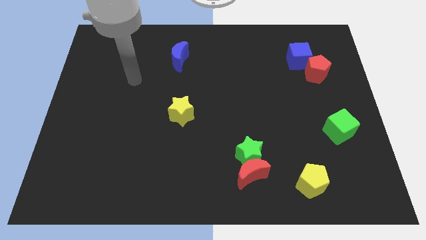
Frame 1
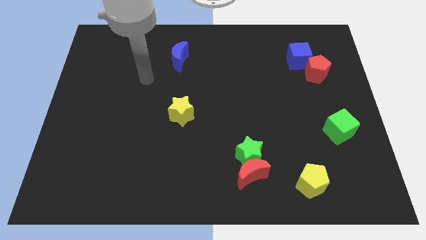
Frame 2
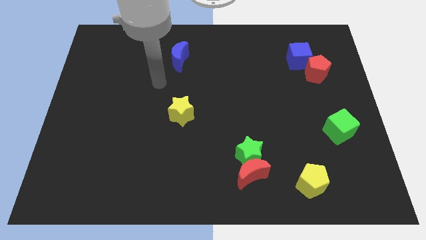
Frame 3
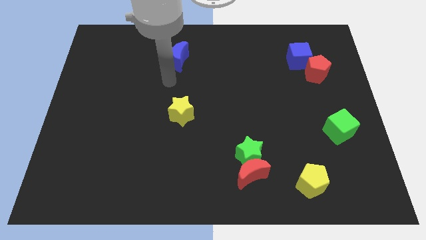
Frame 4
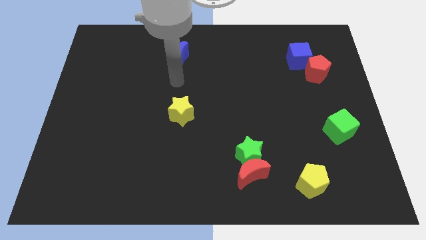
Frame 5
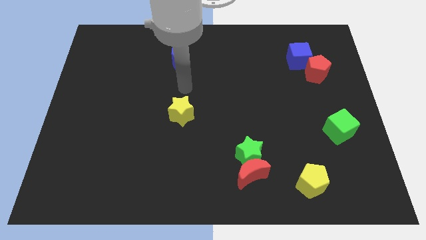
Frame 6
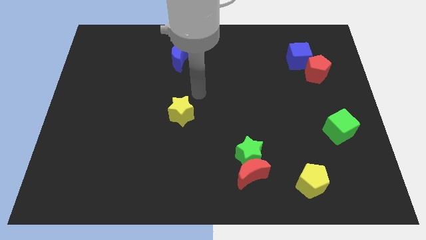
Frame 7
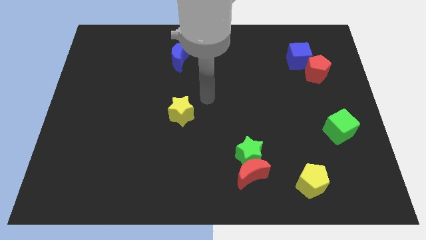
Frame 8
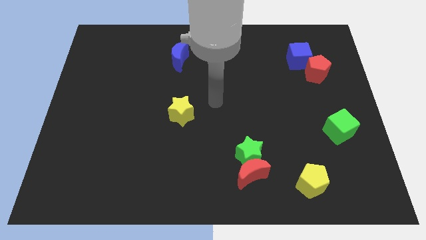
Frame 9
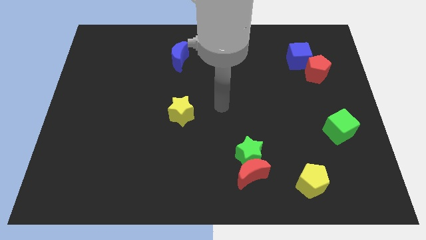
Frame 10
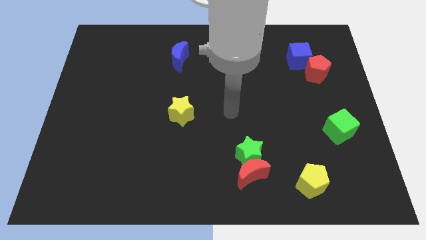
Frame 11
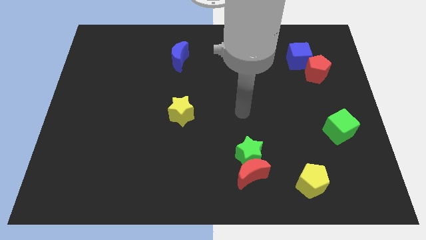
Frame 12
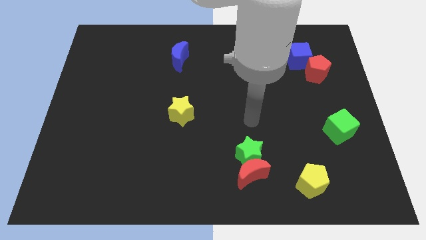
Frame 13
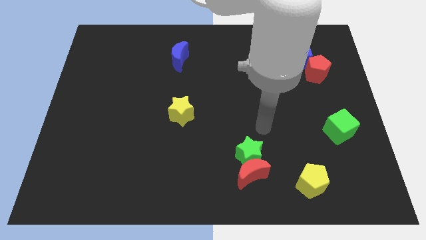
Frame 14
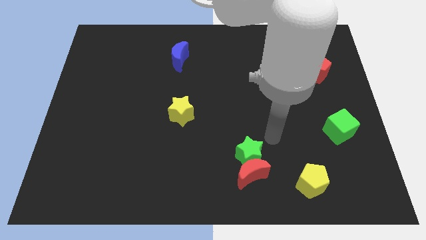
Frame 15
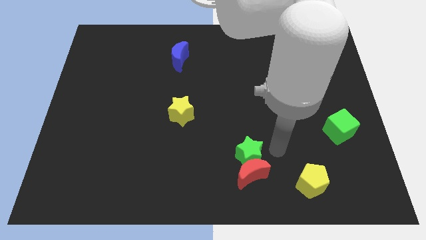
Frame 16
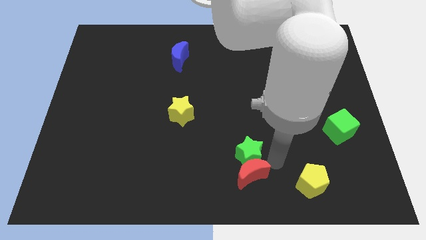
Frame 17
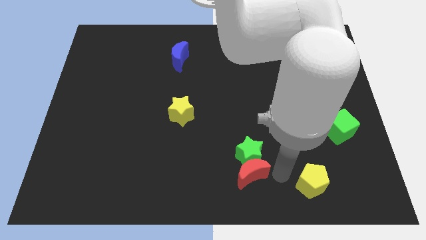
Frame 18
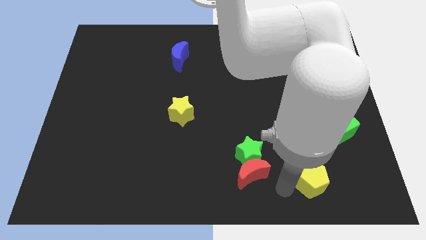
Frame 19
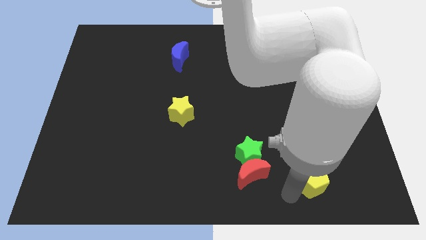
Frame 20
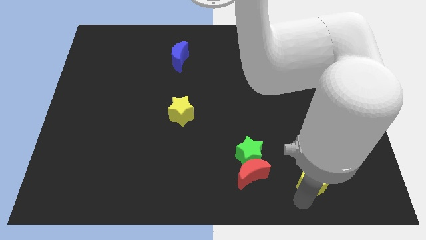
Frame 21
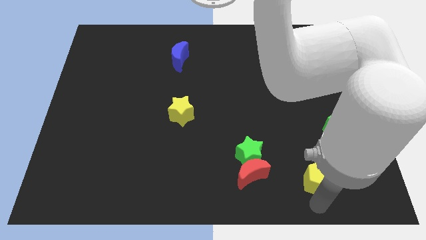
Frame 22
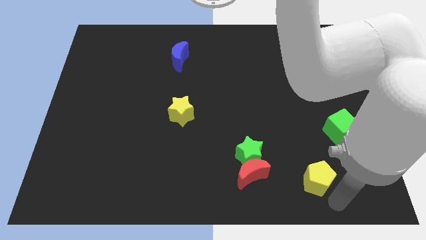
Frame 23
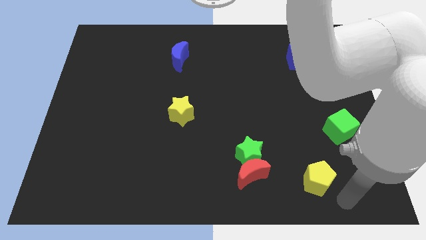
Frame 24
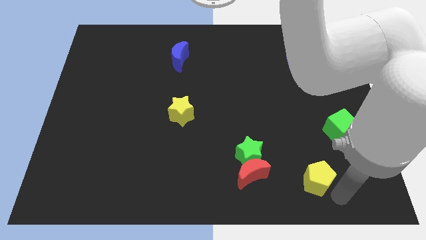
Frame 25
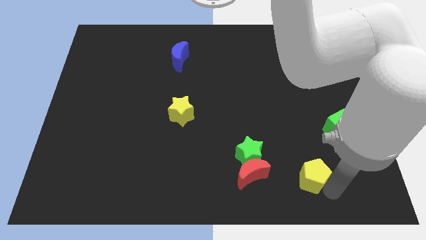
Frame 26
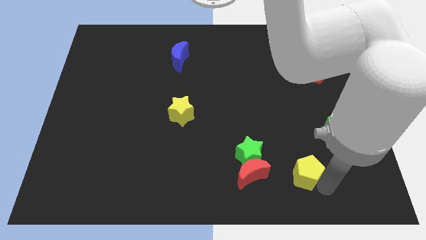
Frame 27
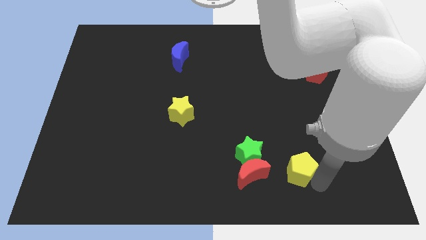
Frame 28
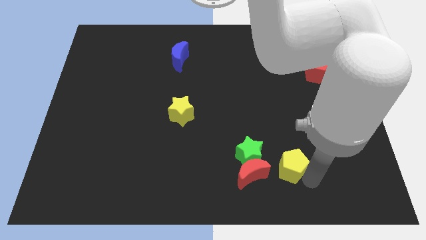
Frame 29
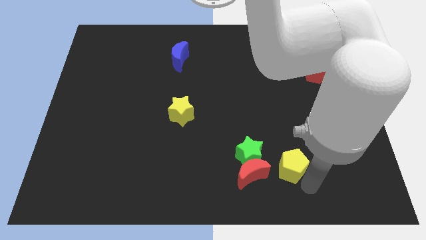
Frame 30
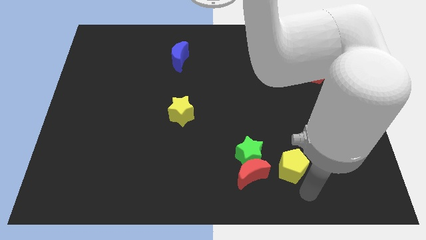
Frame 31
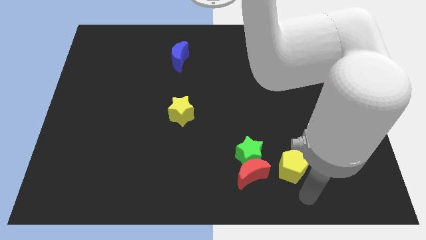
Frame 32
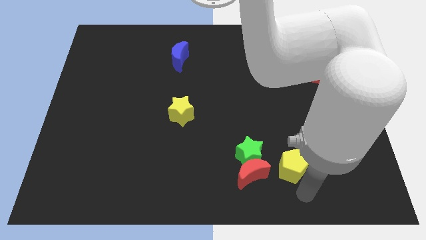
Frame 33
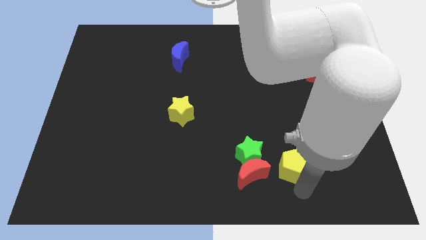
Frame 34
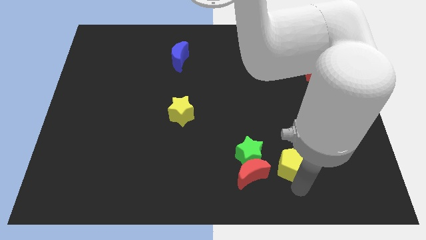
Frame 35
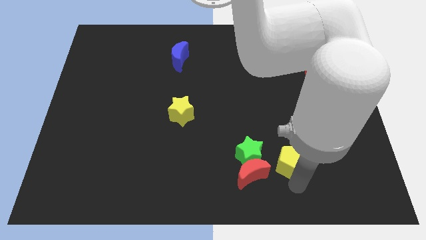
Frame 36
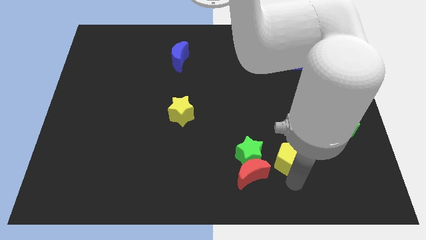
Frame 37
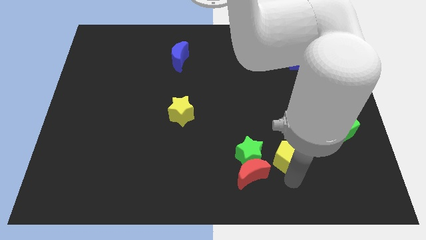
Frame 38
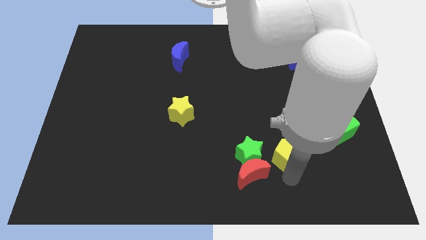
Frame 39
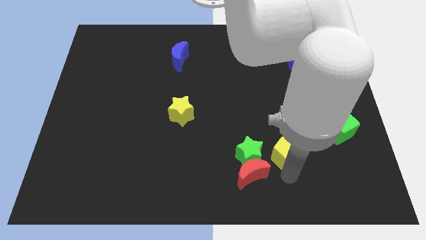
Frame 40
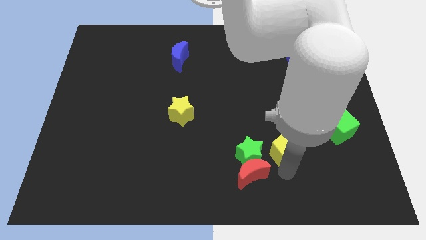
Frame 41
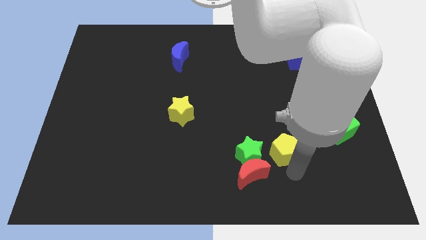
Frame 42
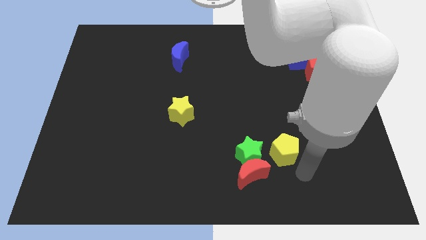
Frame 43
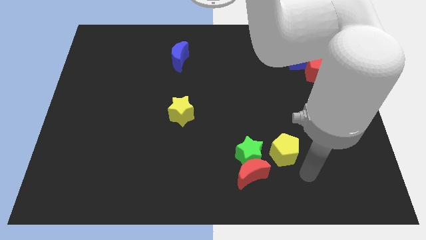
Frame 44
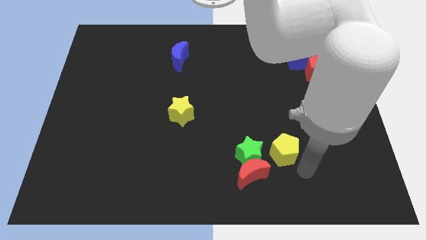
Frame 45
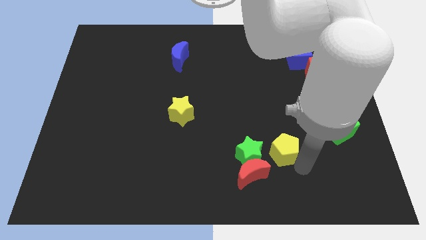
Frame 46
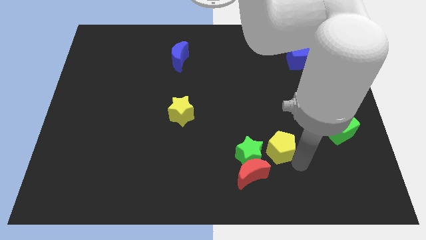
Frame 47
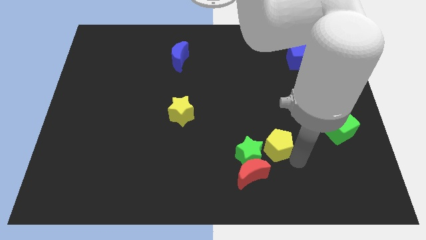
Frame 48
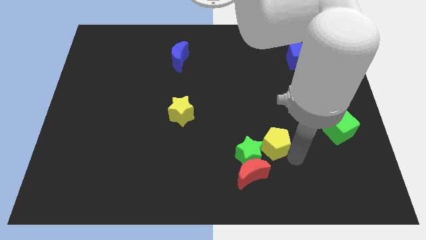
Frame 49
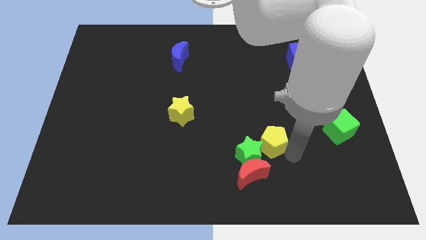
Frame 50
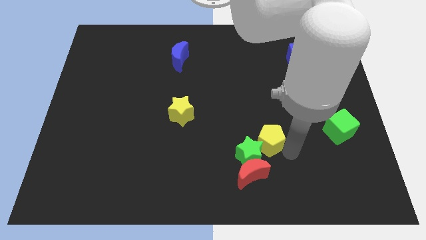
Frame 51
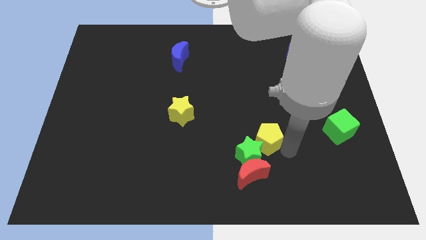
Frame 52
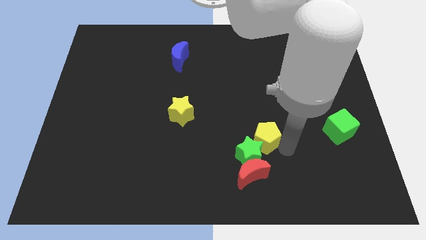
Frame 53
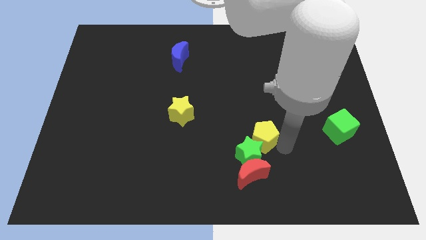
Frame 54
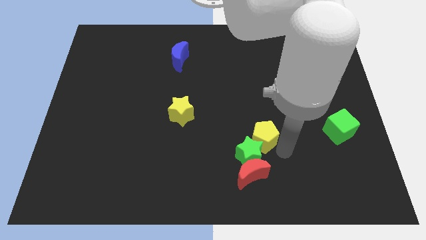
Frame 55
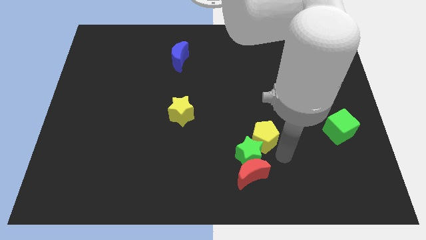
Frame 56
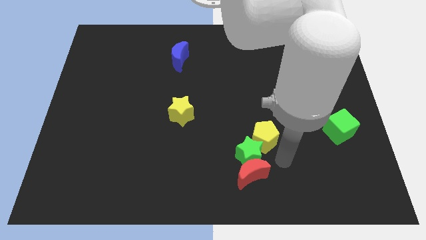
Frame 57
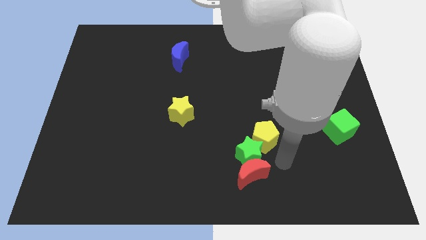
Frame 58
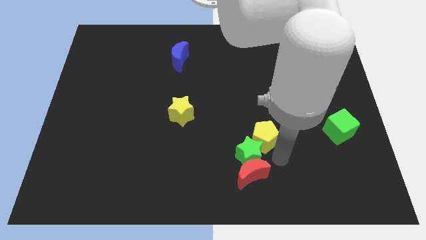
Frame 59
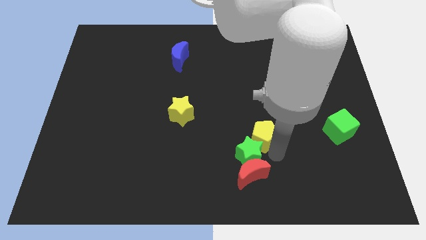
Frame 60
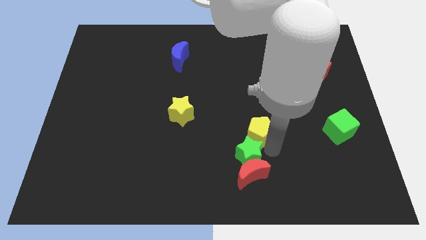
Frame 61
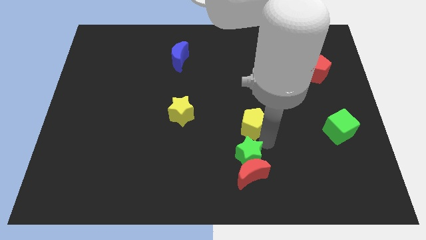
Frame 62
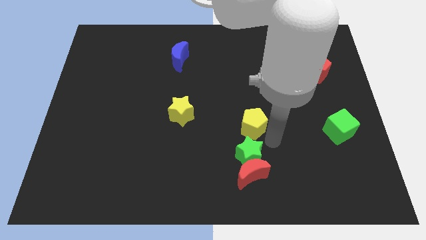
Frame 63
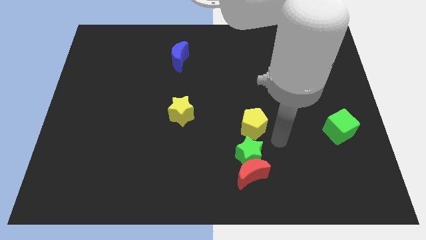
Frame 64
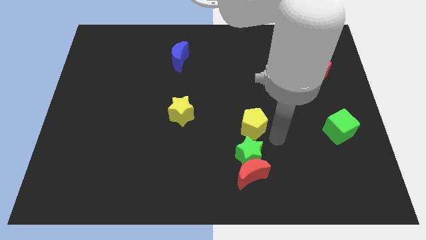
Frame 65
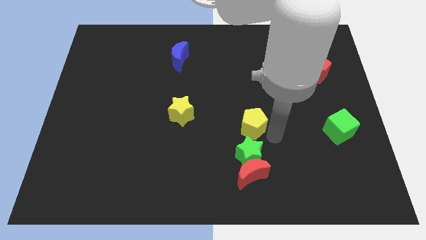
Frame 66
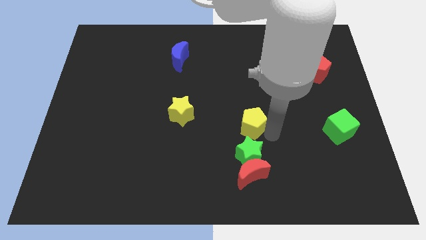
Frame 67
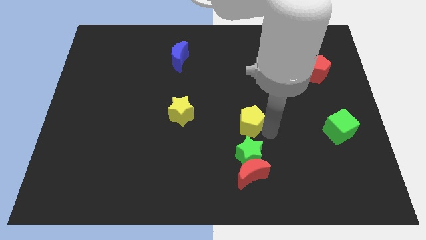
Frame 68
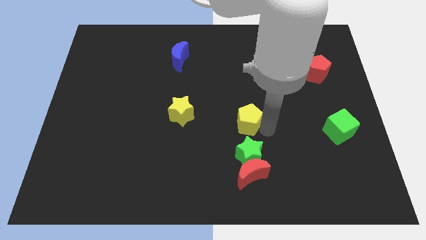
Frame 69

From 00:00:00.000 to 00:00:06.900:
push the yellow pentagon just right of the yellow star
